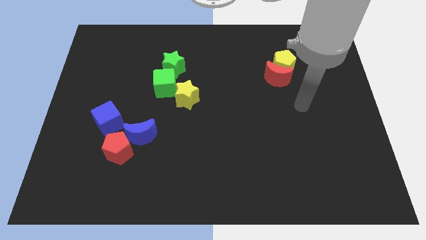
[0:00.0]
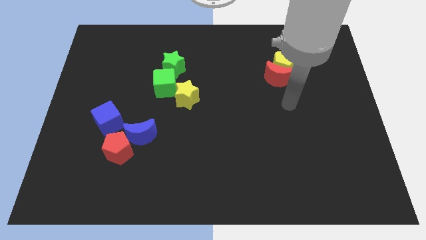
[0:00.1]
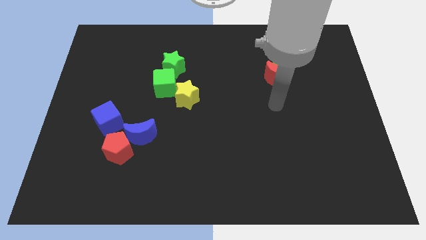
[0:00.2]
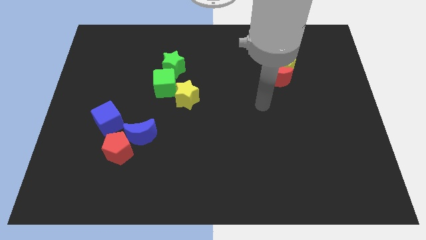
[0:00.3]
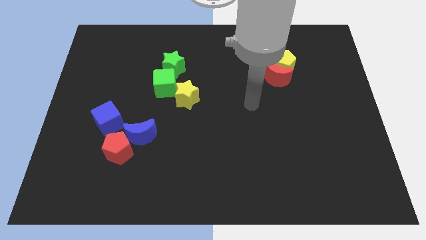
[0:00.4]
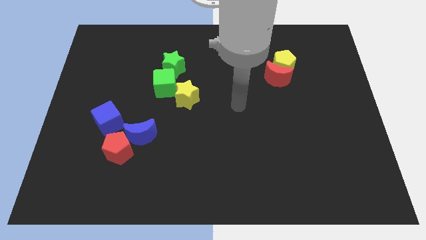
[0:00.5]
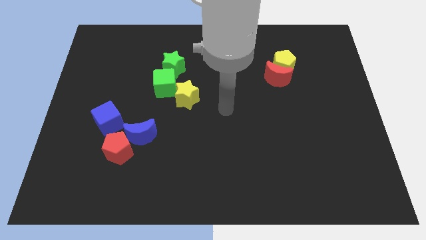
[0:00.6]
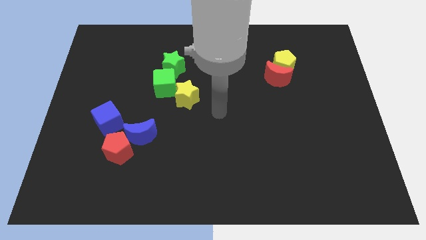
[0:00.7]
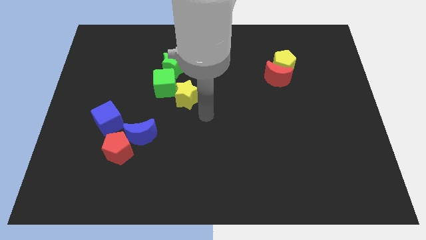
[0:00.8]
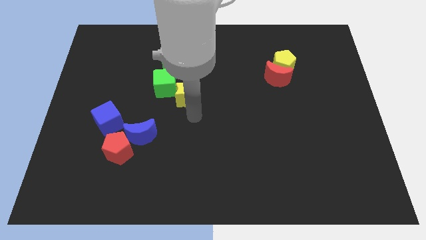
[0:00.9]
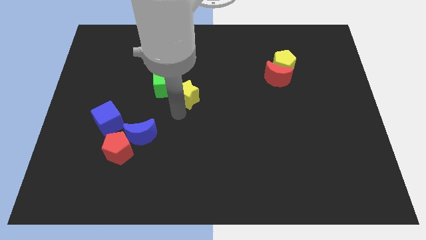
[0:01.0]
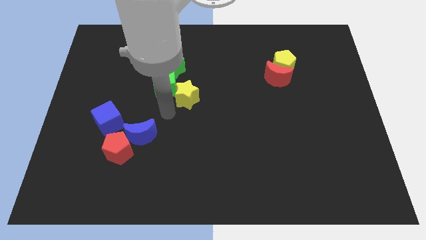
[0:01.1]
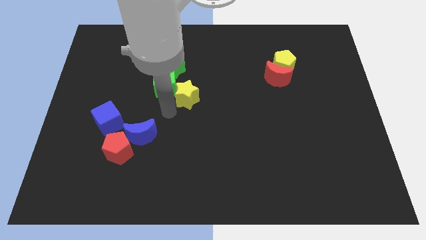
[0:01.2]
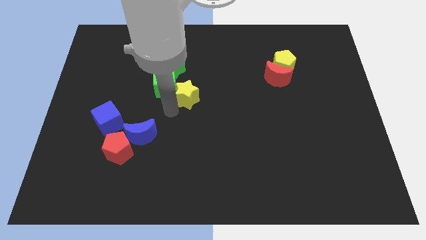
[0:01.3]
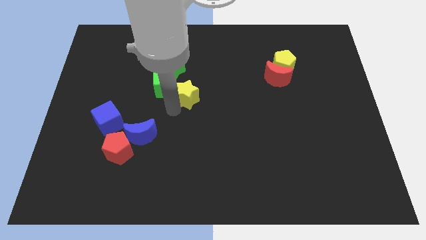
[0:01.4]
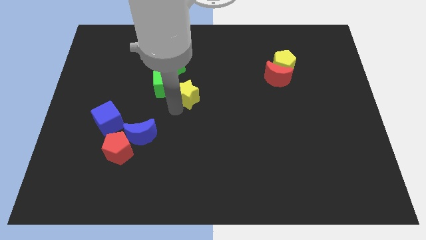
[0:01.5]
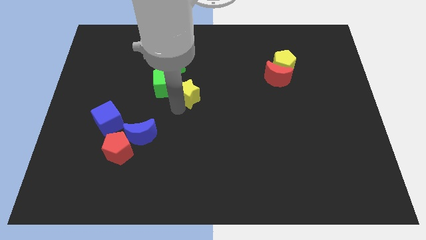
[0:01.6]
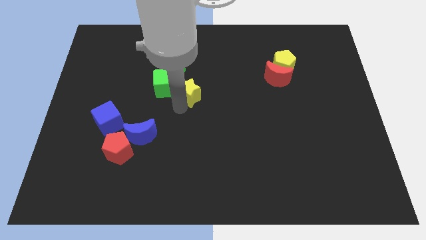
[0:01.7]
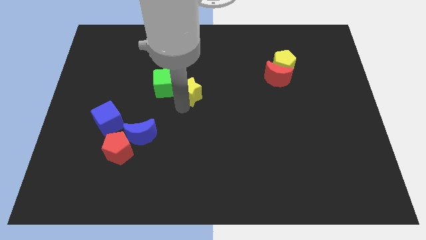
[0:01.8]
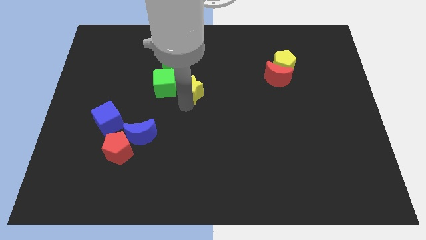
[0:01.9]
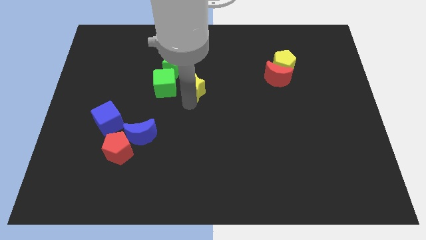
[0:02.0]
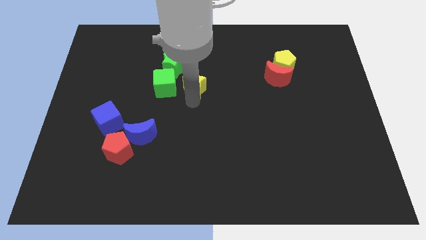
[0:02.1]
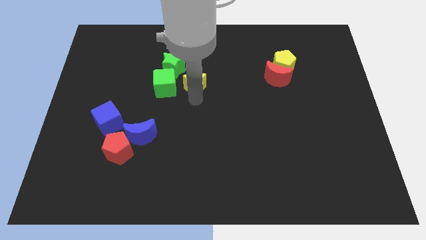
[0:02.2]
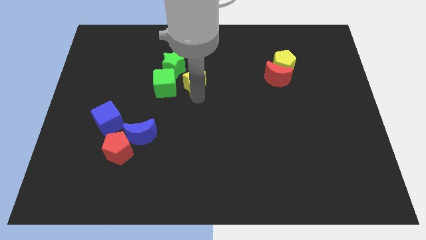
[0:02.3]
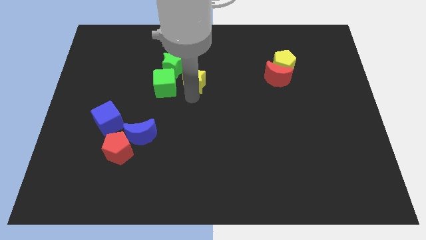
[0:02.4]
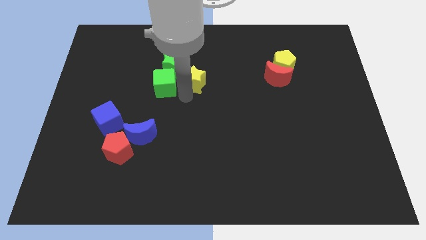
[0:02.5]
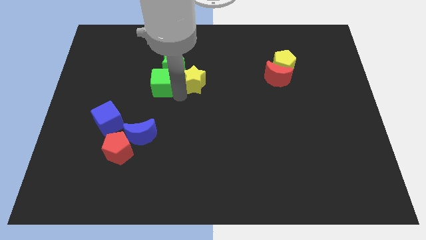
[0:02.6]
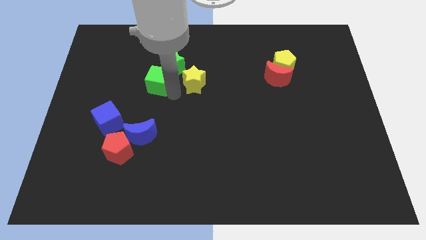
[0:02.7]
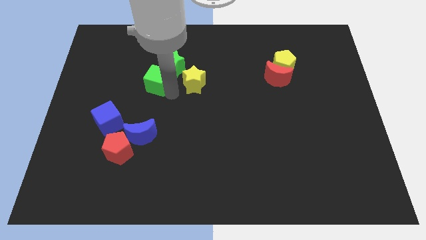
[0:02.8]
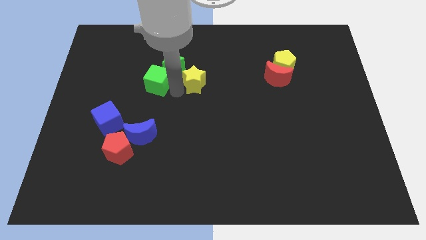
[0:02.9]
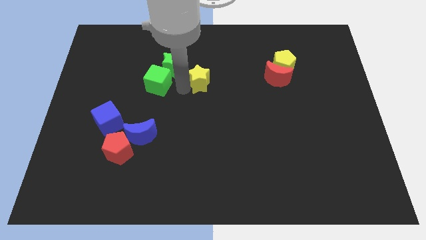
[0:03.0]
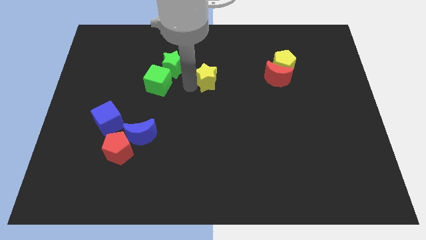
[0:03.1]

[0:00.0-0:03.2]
push the yellow star up and right diagonally somewhat

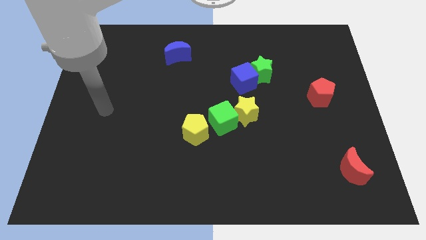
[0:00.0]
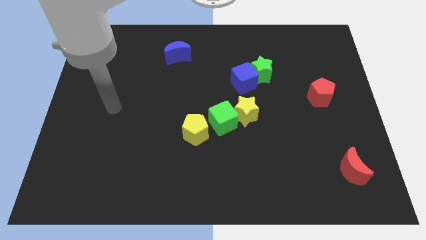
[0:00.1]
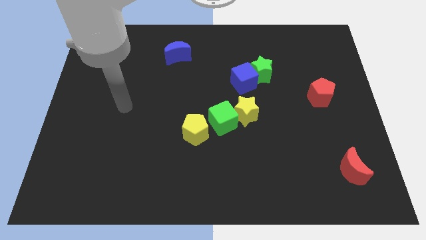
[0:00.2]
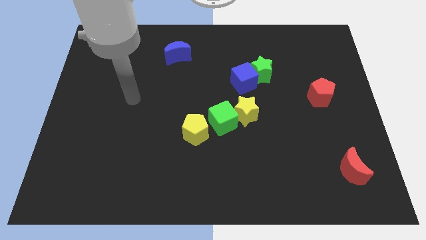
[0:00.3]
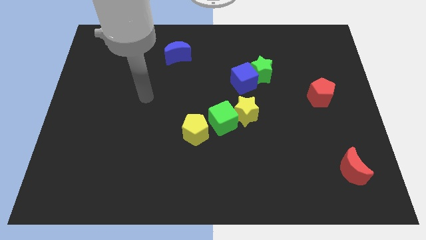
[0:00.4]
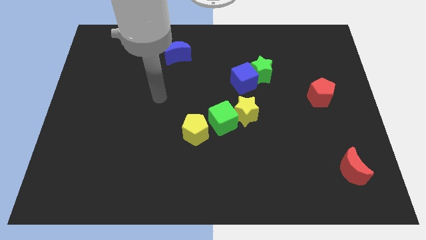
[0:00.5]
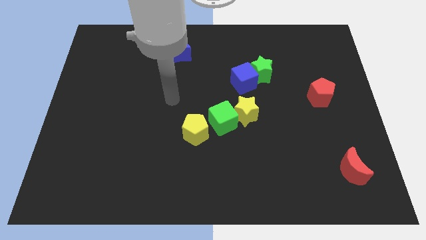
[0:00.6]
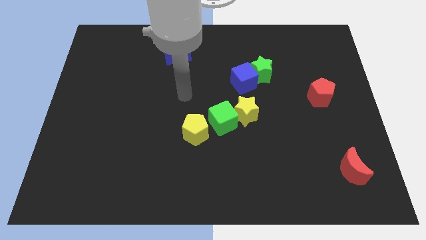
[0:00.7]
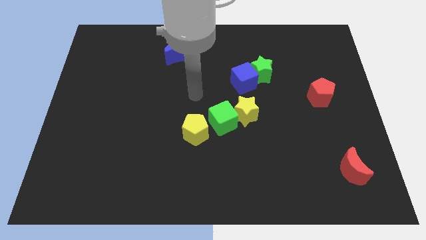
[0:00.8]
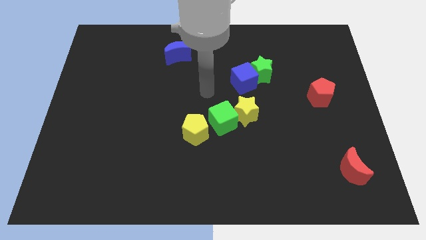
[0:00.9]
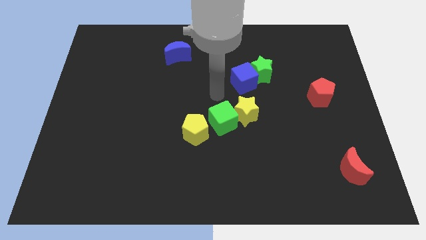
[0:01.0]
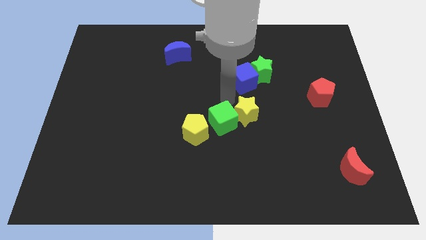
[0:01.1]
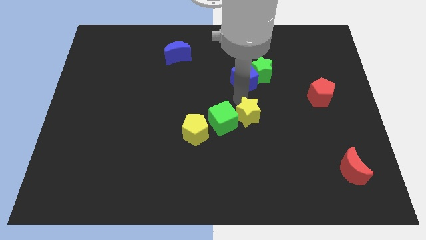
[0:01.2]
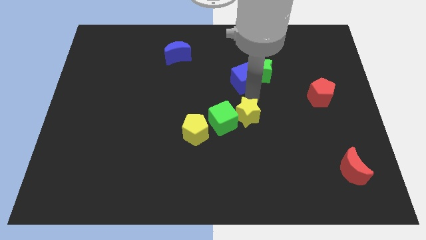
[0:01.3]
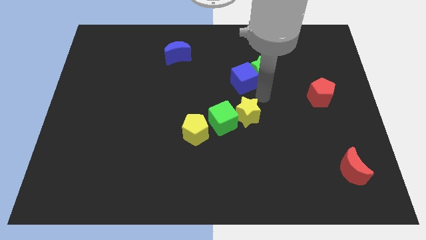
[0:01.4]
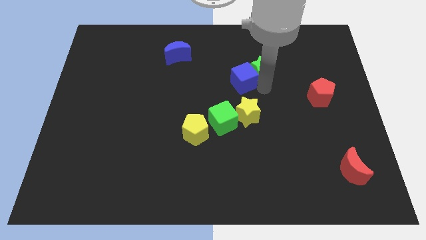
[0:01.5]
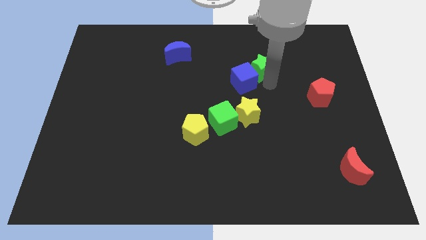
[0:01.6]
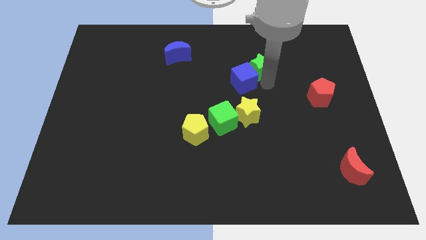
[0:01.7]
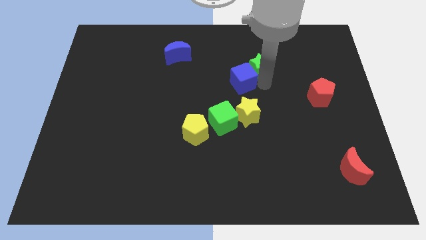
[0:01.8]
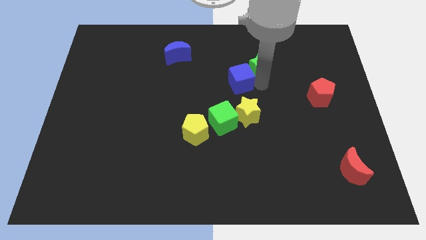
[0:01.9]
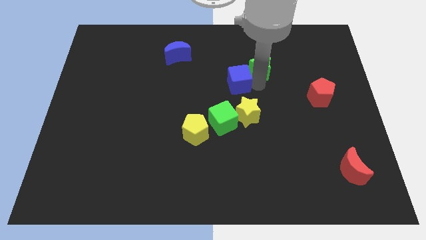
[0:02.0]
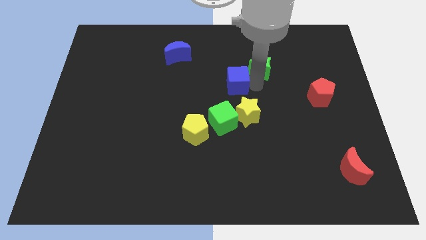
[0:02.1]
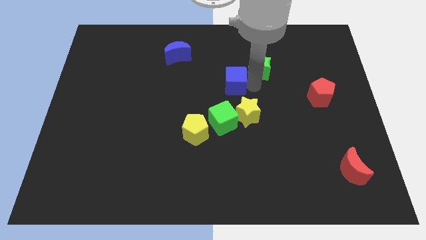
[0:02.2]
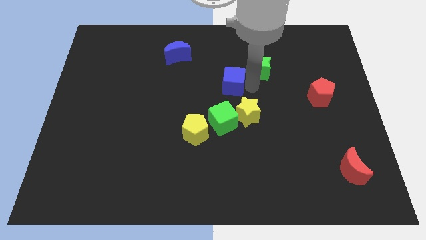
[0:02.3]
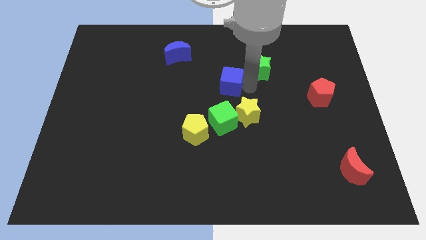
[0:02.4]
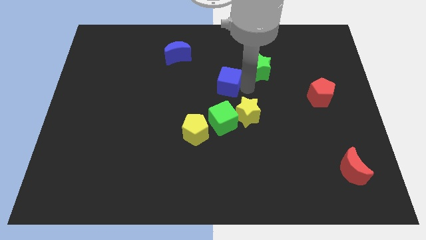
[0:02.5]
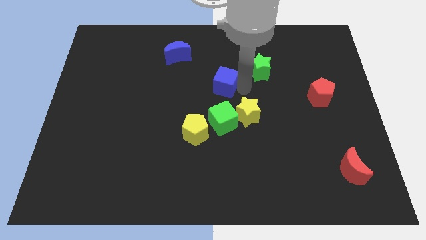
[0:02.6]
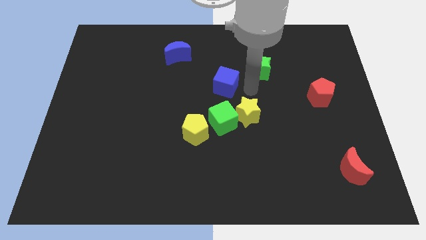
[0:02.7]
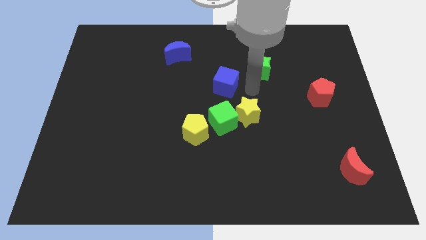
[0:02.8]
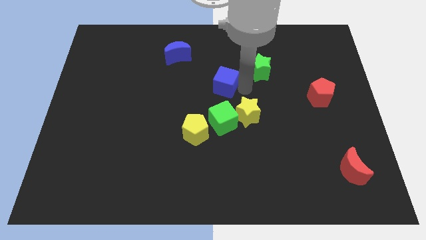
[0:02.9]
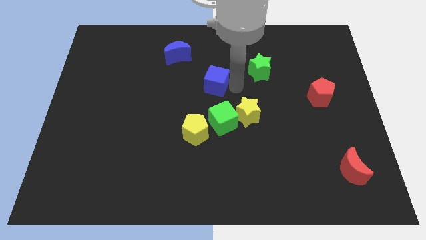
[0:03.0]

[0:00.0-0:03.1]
push the blue cube a little bit left

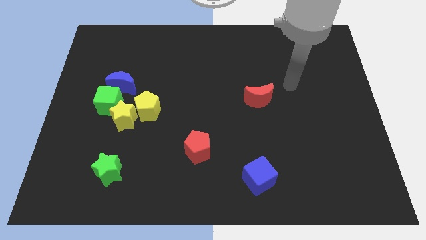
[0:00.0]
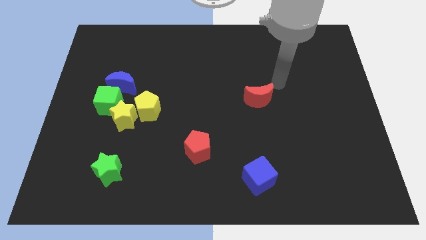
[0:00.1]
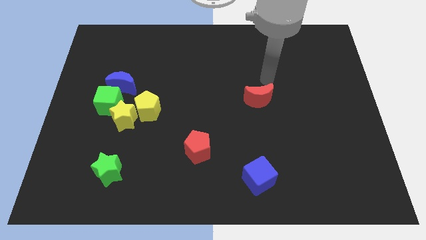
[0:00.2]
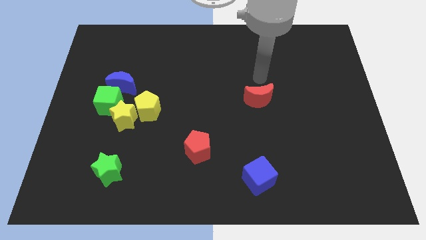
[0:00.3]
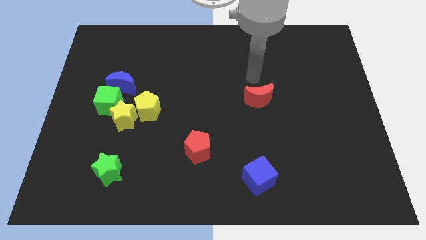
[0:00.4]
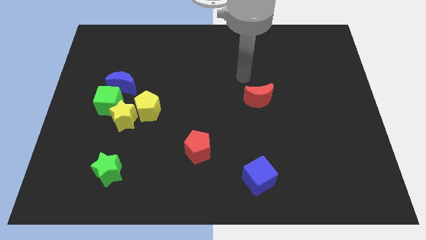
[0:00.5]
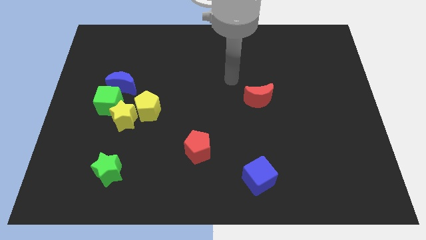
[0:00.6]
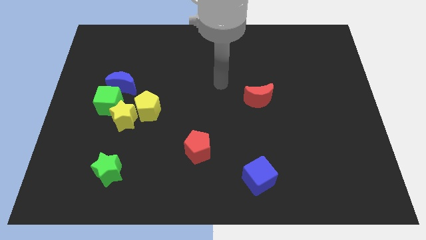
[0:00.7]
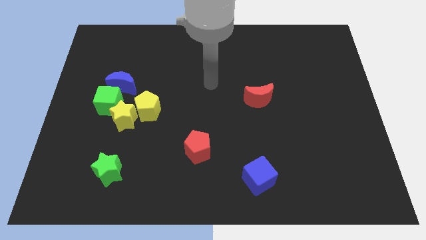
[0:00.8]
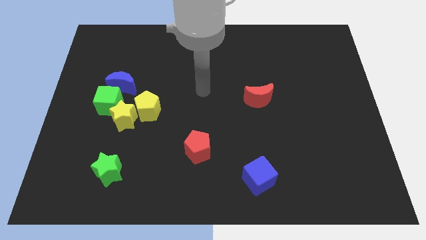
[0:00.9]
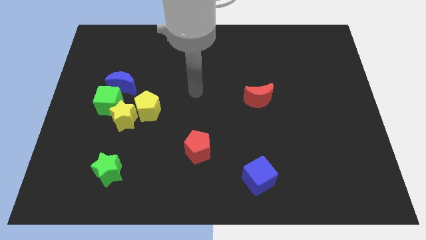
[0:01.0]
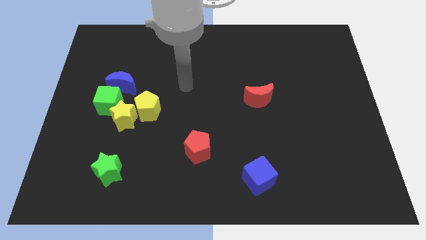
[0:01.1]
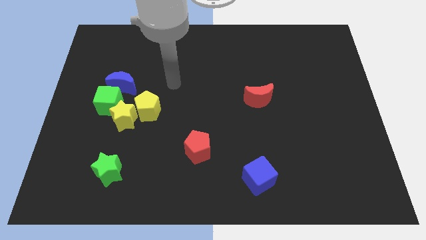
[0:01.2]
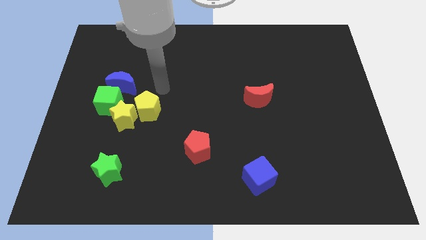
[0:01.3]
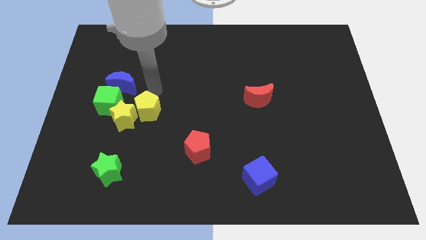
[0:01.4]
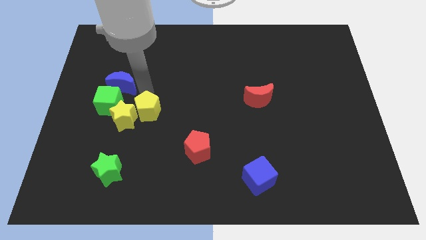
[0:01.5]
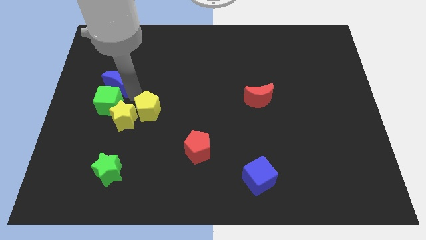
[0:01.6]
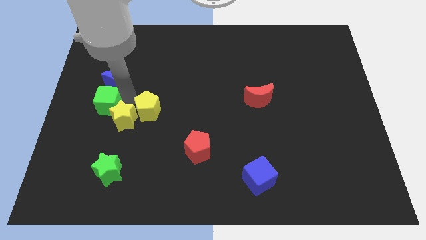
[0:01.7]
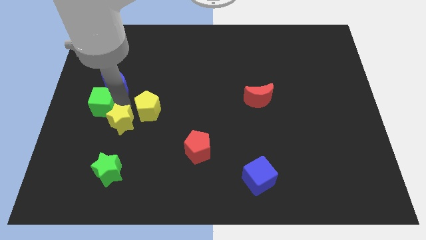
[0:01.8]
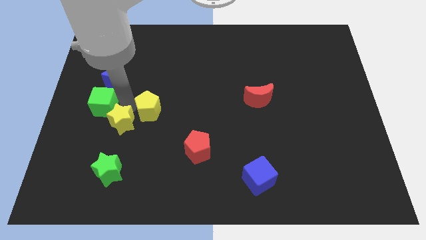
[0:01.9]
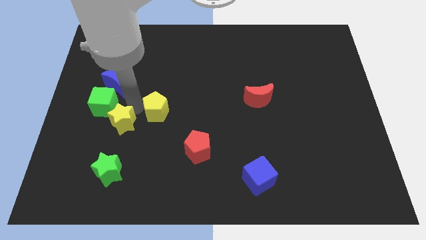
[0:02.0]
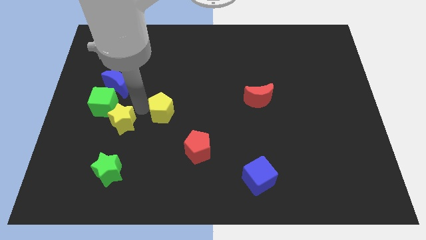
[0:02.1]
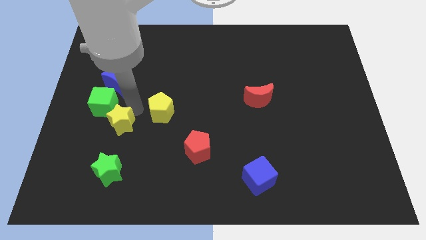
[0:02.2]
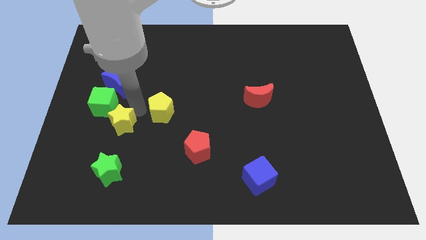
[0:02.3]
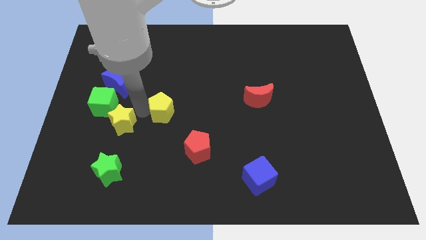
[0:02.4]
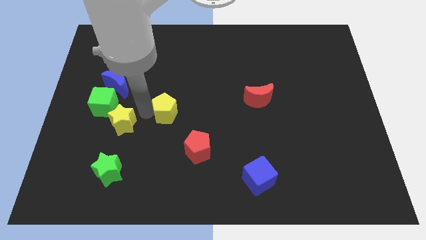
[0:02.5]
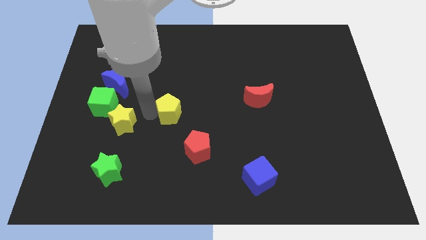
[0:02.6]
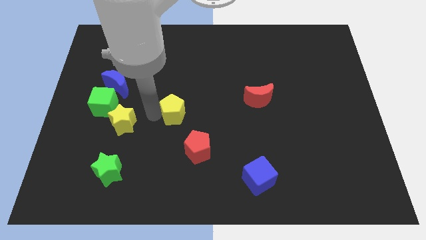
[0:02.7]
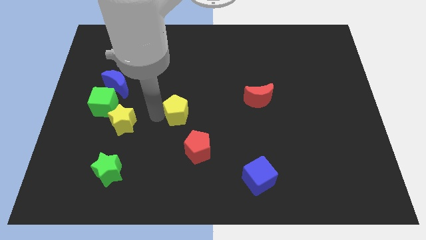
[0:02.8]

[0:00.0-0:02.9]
push the yellow pentagon to the right slightly
